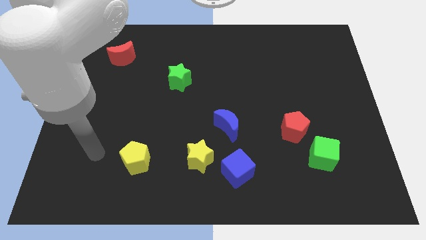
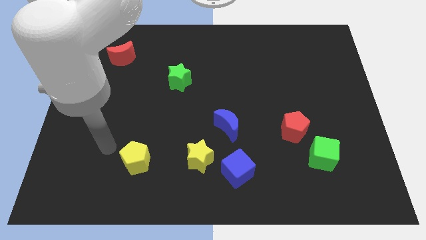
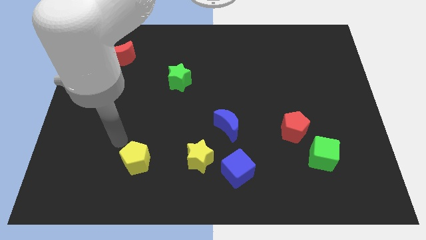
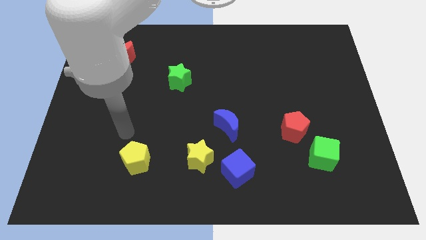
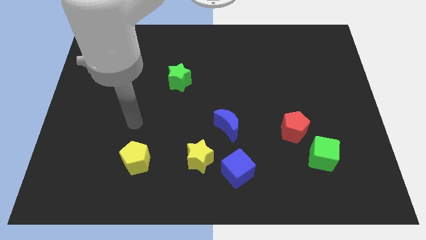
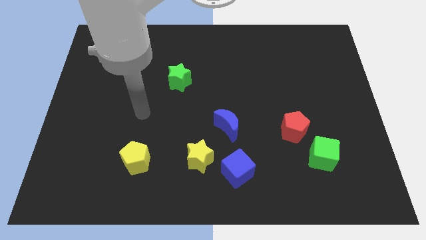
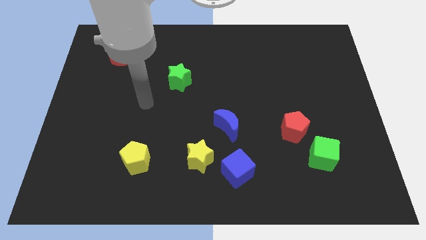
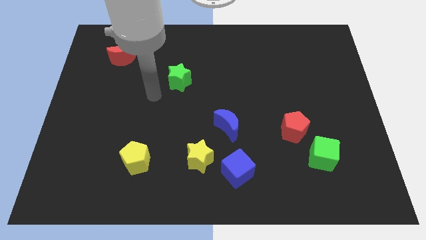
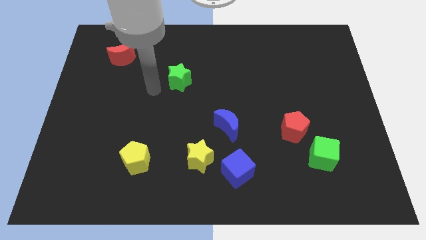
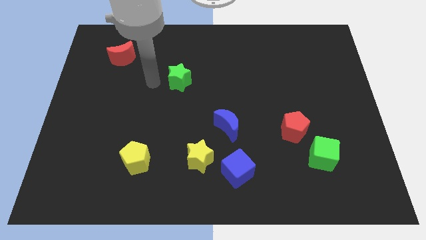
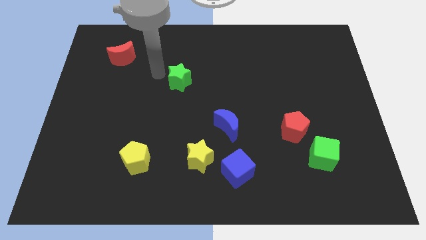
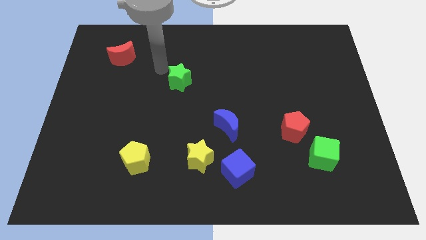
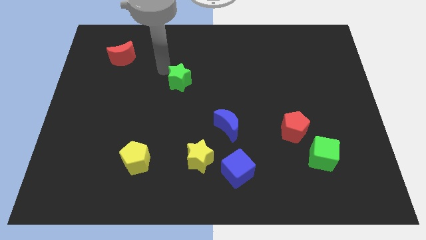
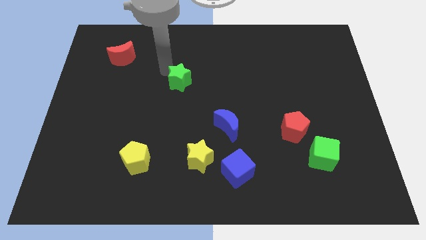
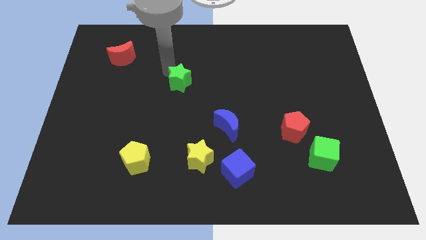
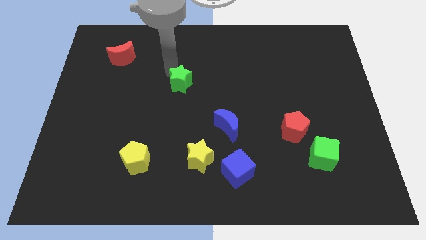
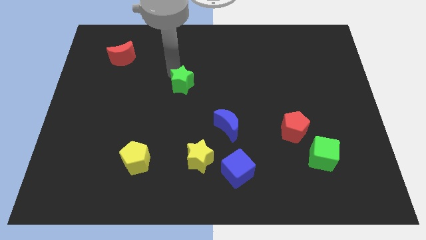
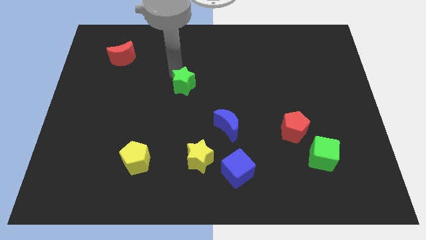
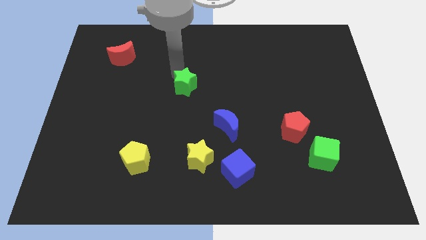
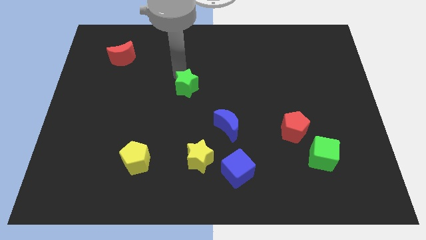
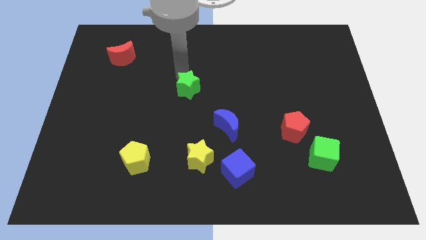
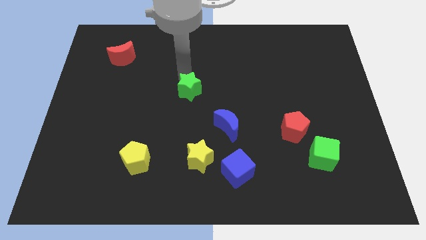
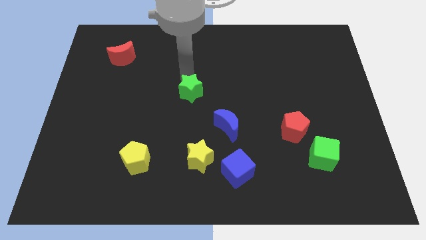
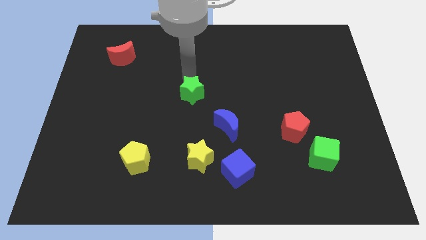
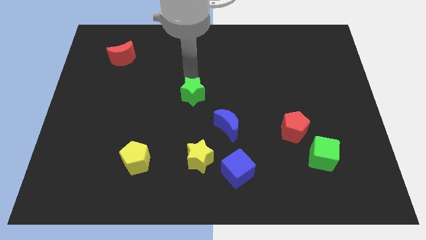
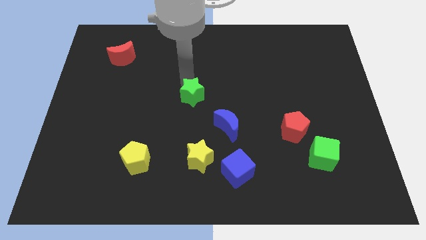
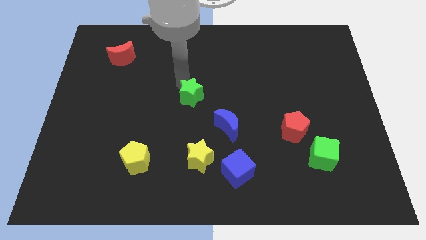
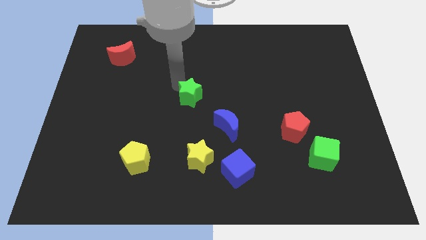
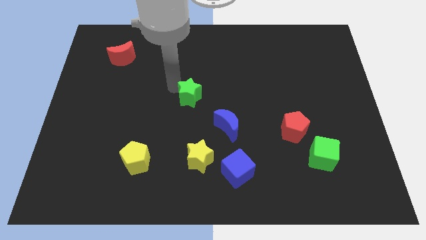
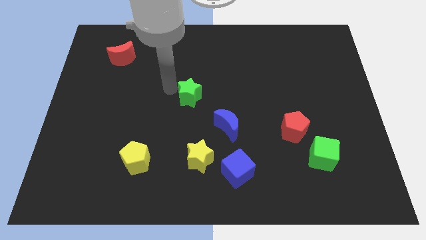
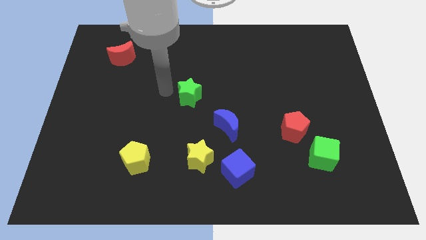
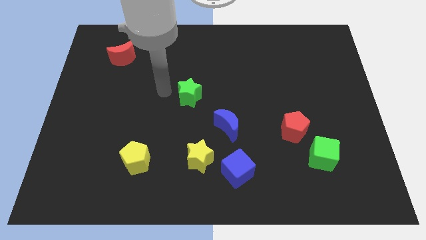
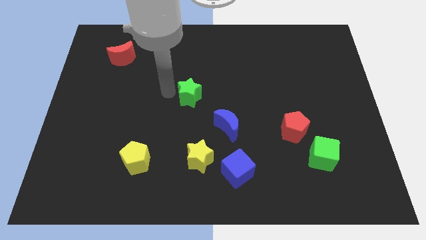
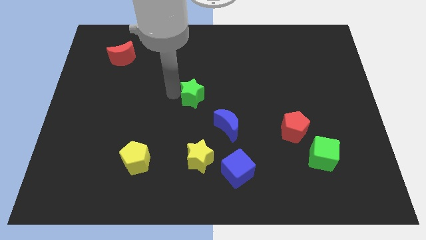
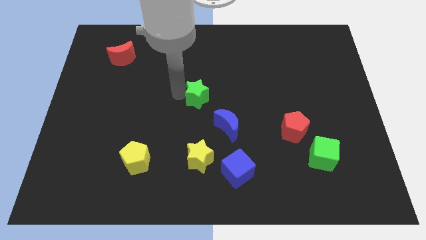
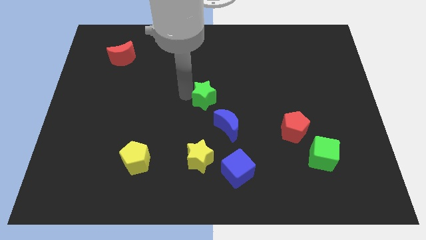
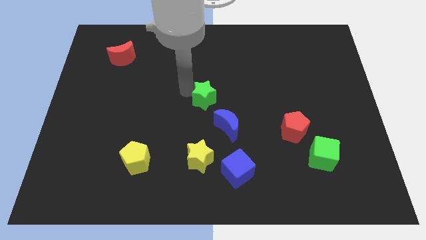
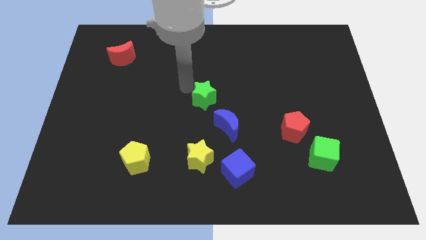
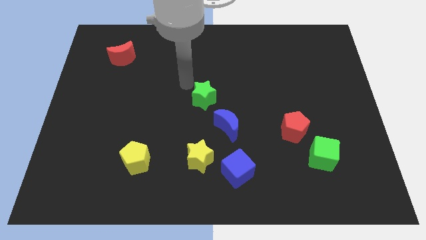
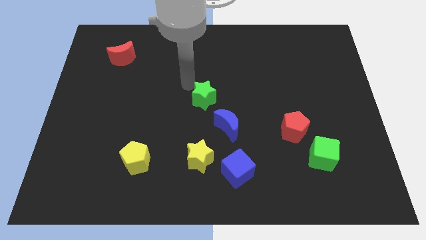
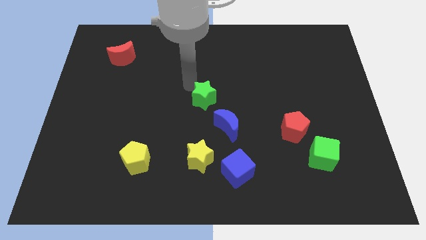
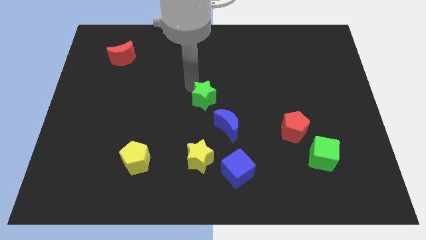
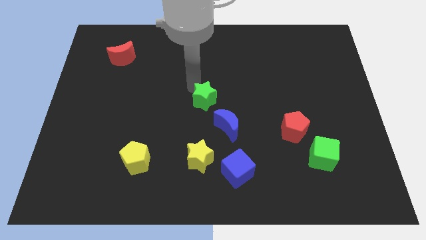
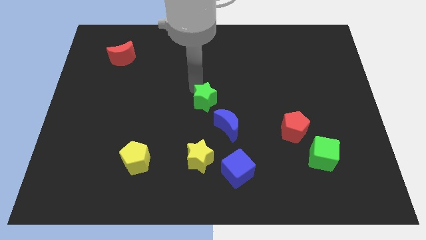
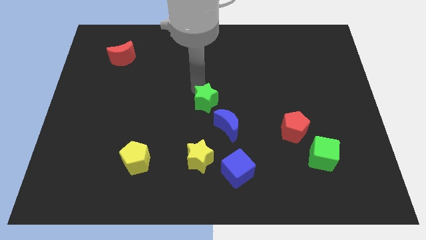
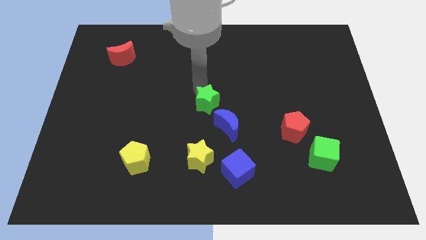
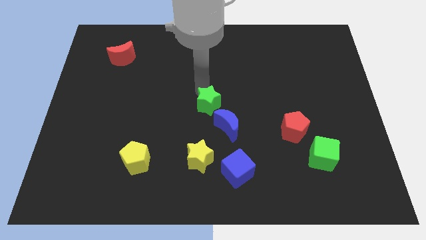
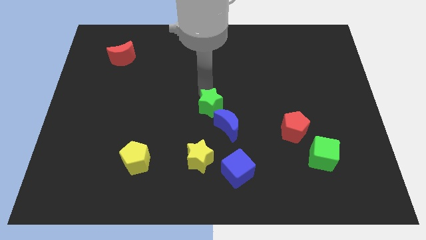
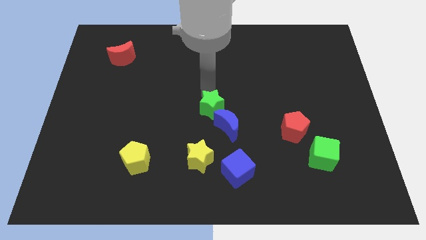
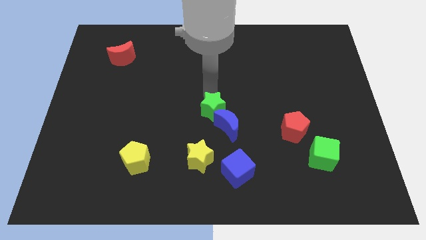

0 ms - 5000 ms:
move the green star towards the blue moon

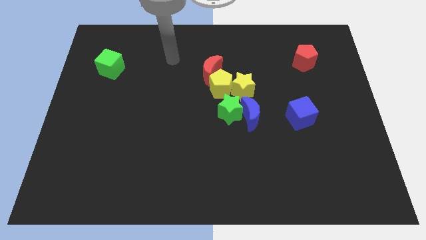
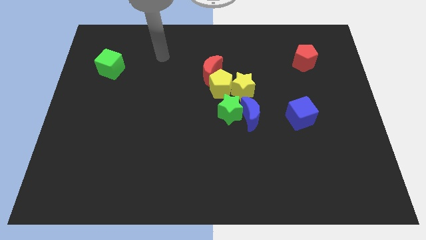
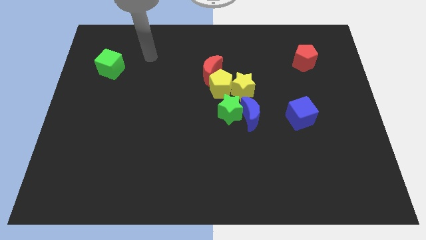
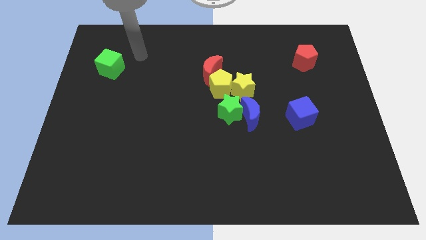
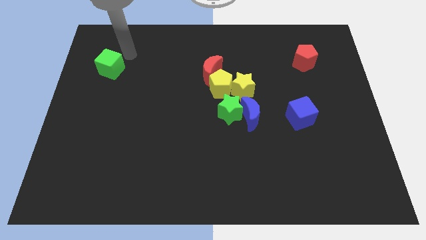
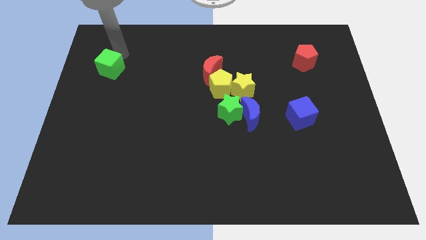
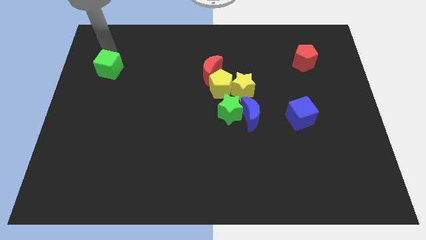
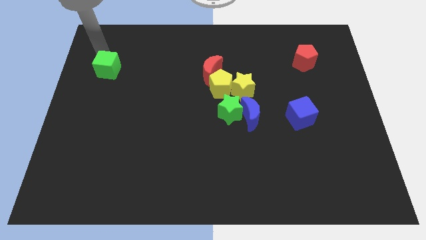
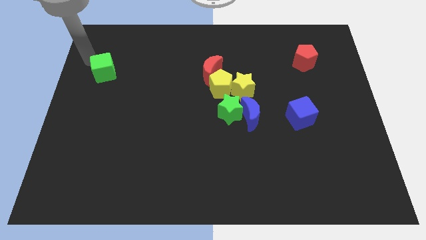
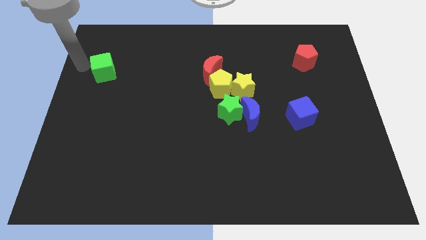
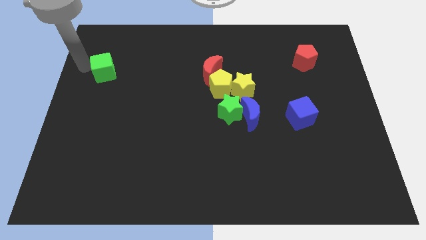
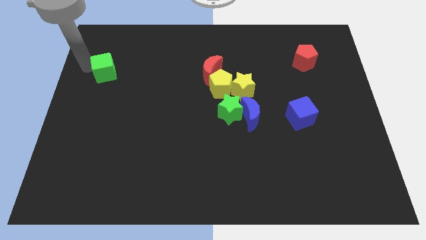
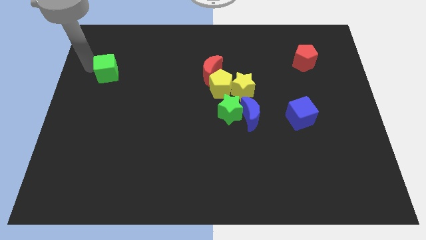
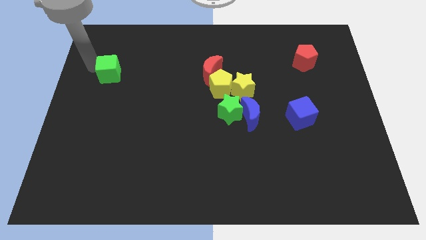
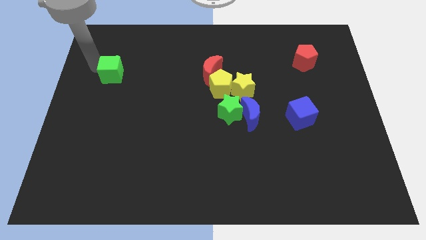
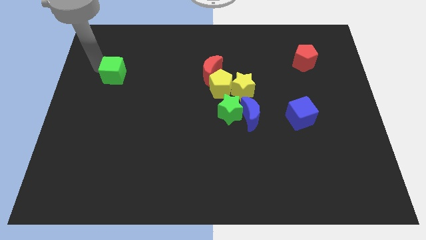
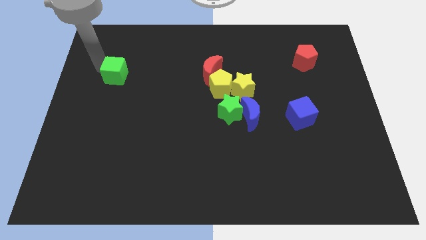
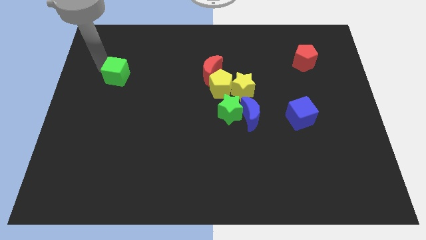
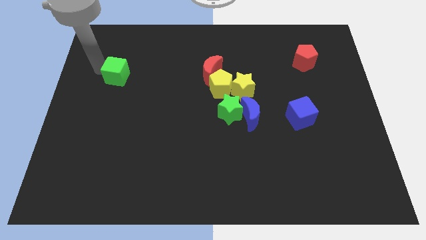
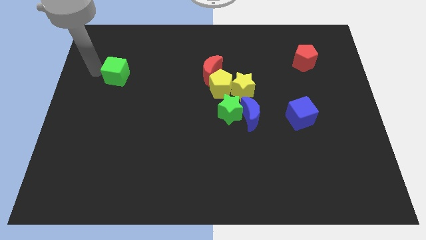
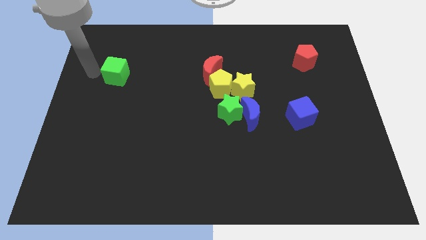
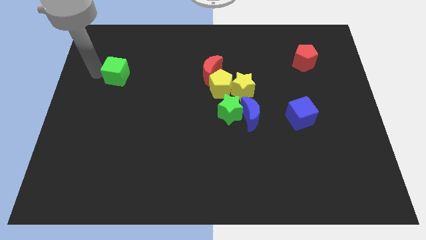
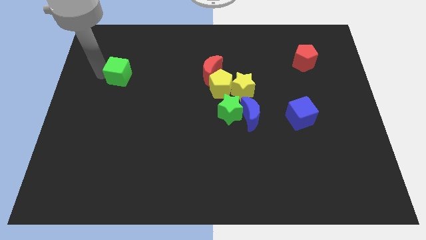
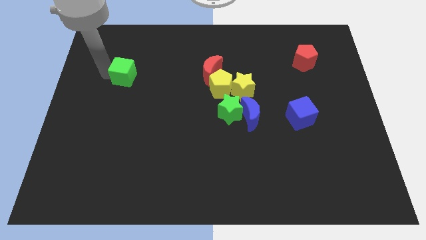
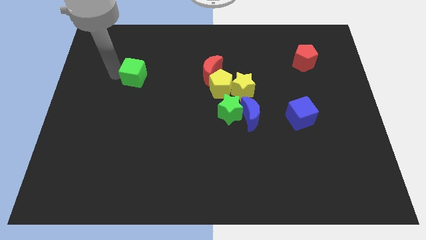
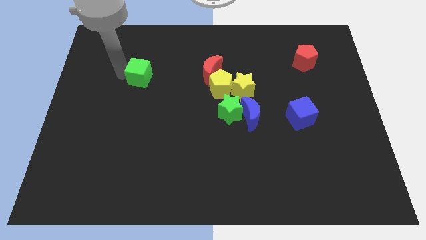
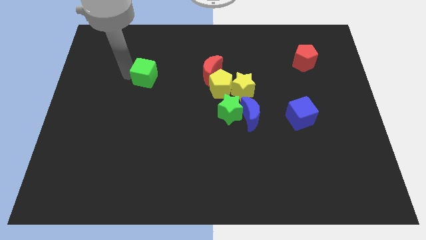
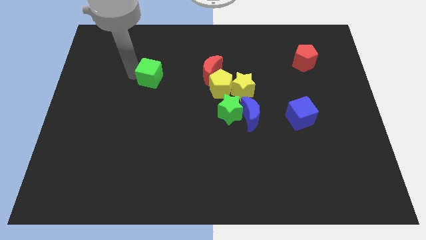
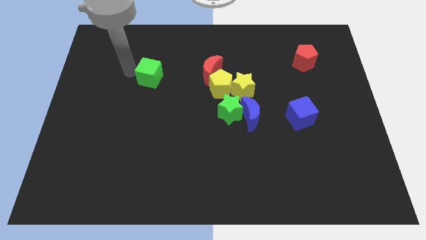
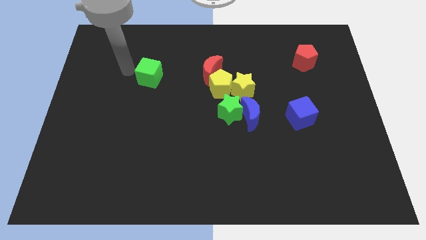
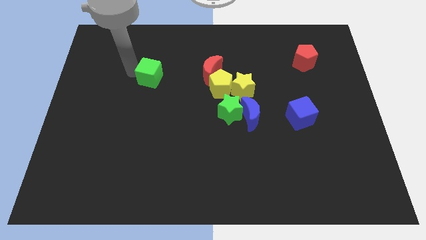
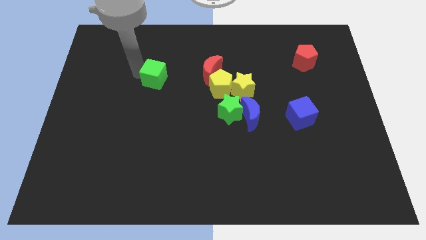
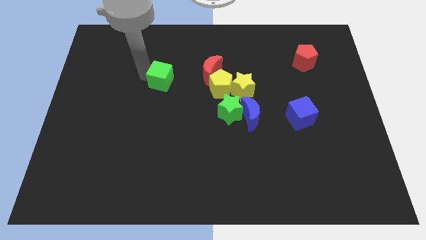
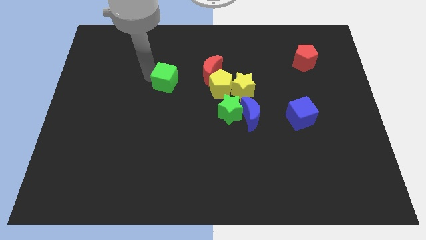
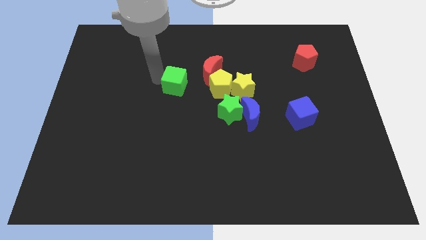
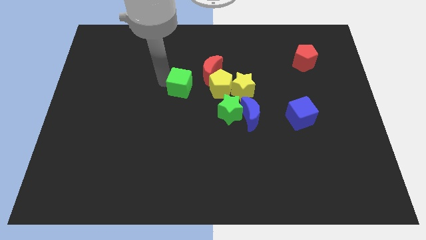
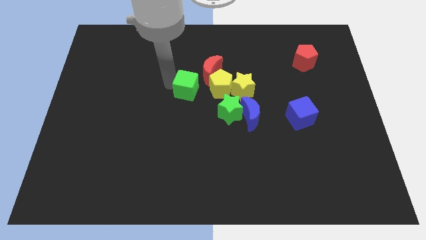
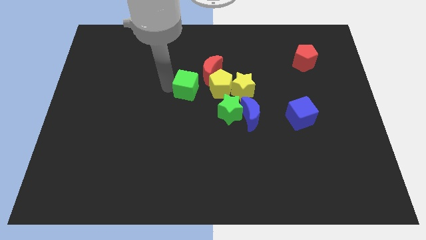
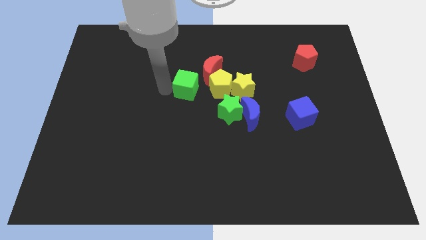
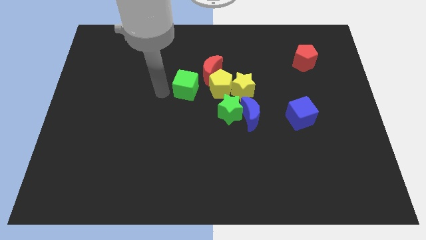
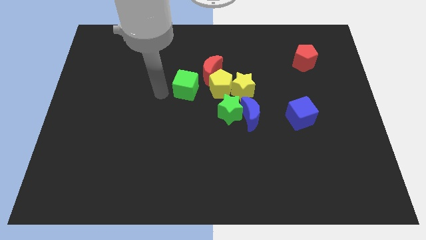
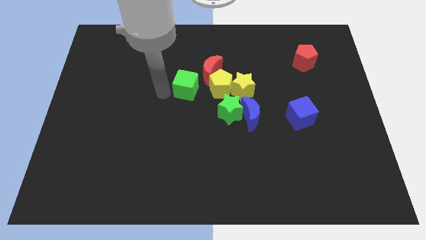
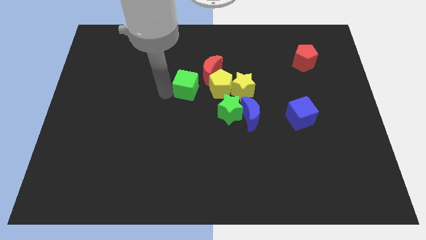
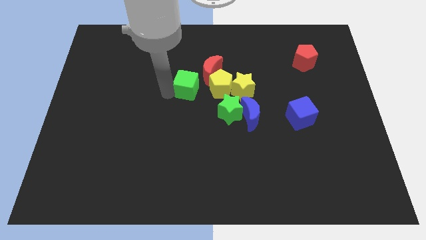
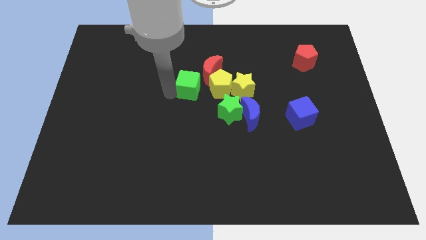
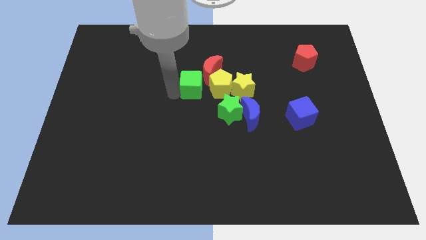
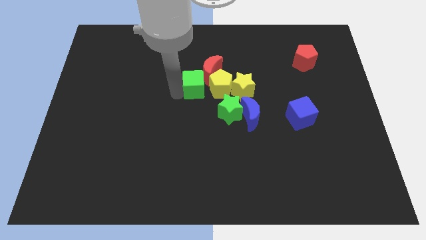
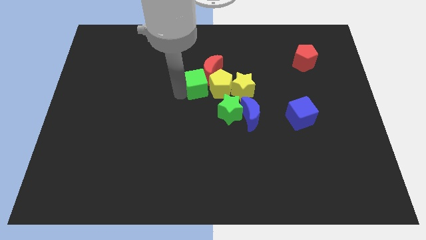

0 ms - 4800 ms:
push the green cube to the yellow pentagon
